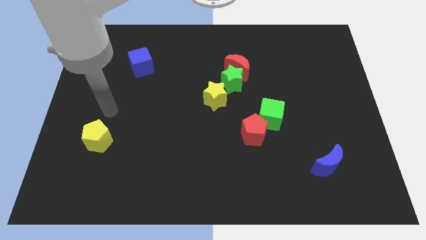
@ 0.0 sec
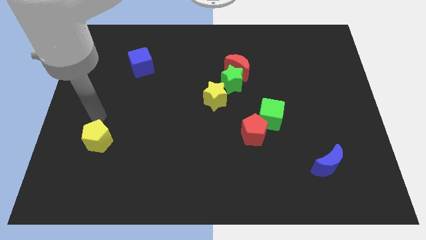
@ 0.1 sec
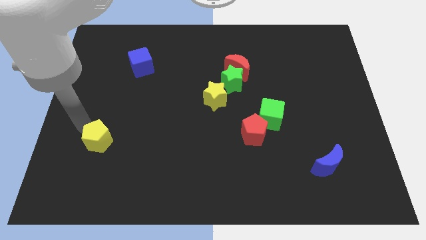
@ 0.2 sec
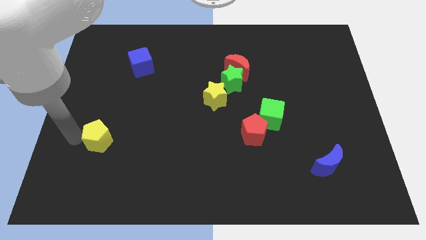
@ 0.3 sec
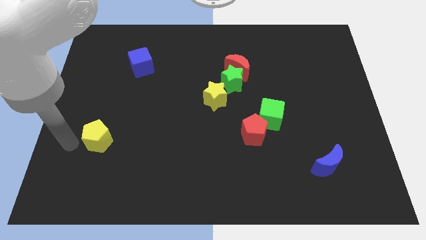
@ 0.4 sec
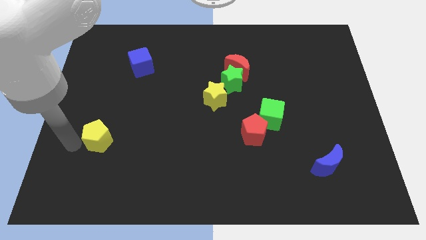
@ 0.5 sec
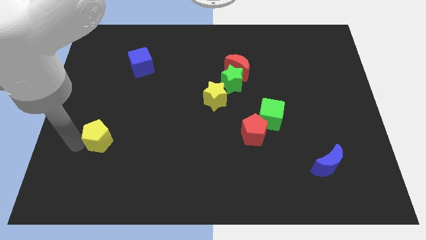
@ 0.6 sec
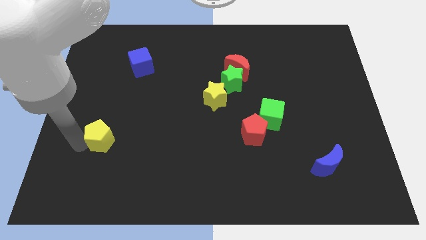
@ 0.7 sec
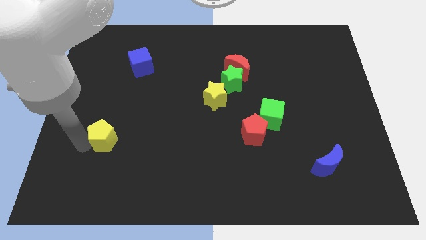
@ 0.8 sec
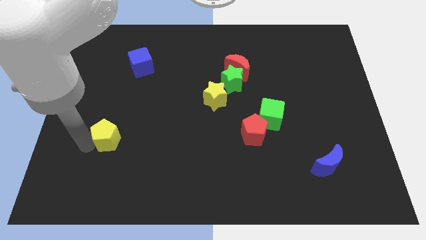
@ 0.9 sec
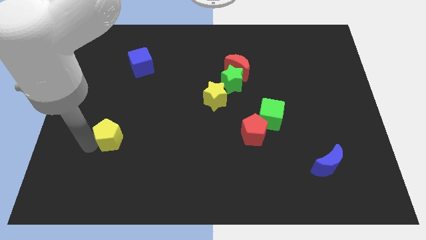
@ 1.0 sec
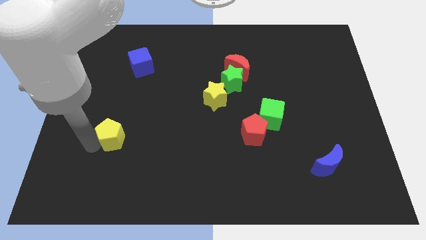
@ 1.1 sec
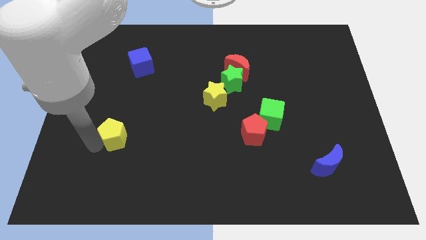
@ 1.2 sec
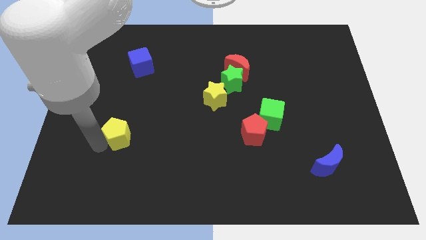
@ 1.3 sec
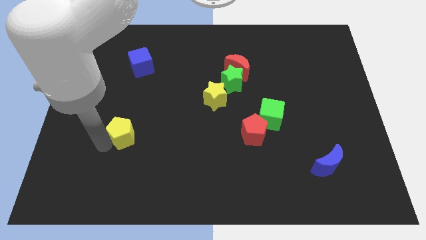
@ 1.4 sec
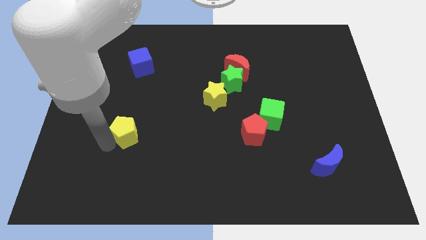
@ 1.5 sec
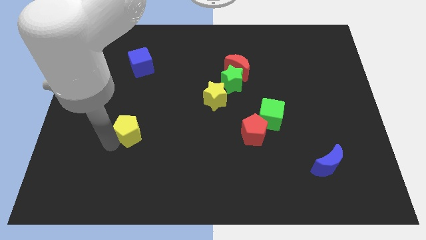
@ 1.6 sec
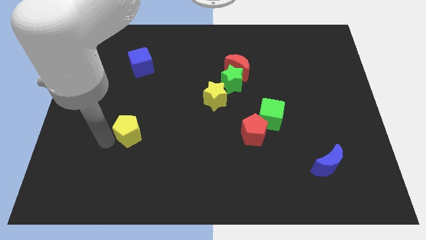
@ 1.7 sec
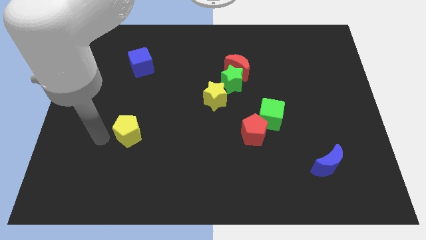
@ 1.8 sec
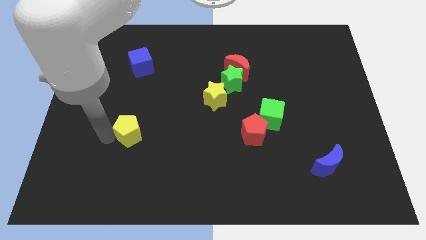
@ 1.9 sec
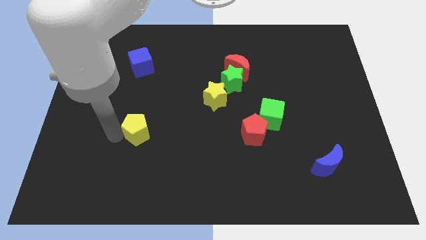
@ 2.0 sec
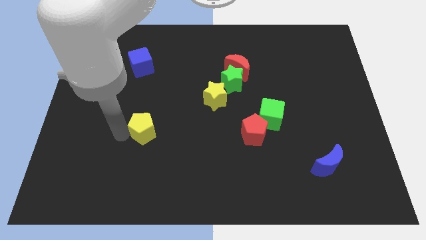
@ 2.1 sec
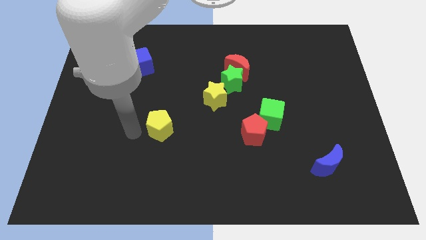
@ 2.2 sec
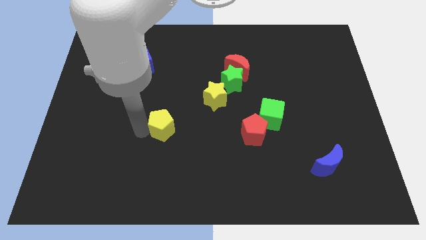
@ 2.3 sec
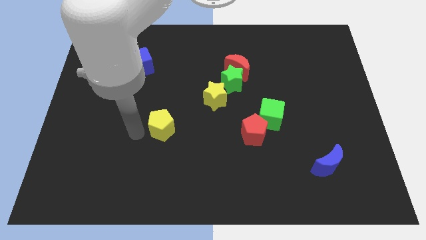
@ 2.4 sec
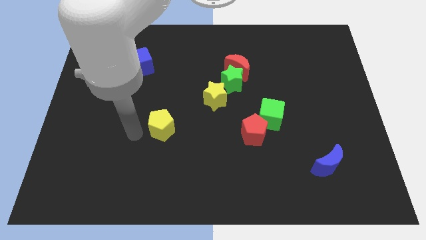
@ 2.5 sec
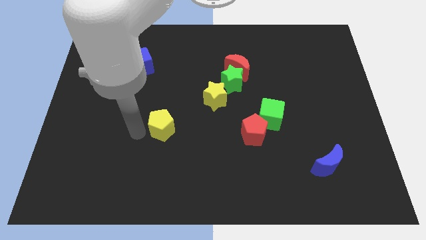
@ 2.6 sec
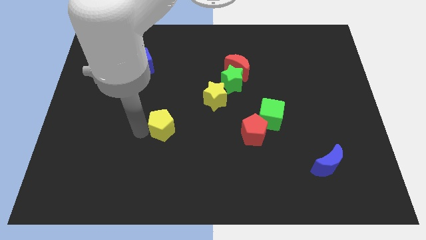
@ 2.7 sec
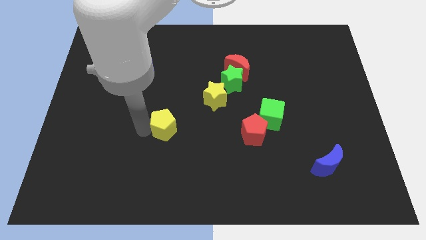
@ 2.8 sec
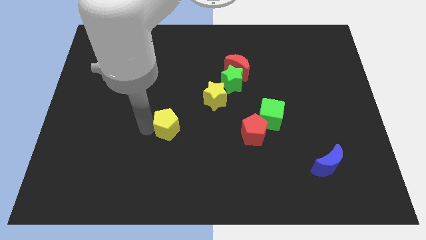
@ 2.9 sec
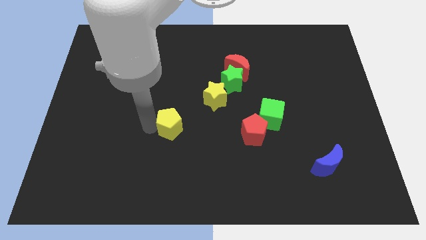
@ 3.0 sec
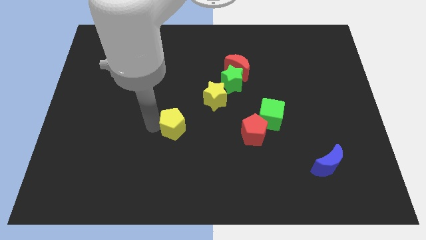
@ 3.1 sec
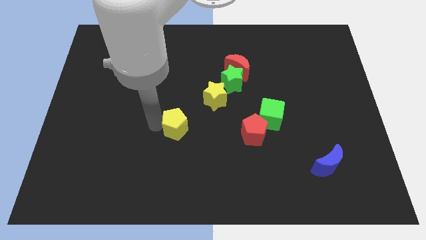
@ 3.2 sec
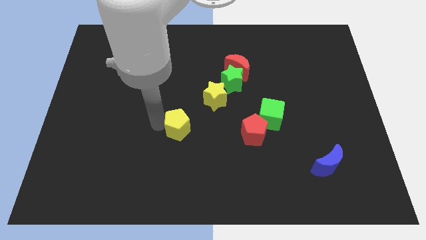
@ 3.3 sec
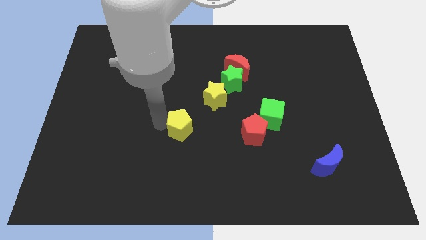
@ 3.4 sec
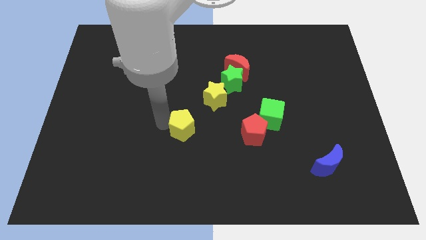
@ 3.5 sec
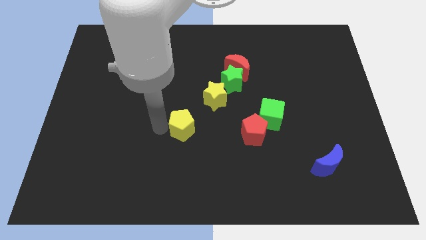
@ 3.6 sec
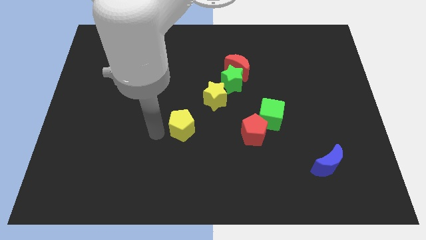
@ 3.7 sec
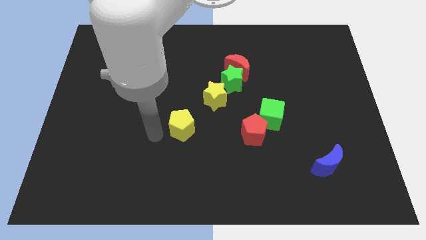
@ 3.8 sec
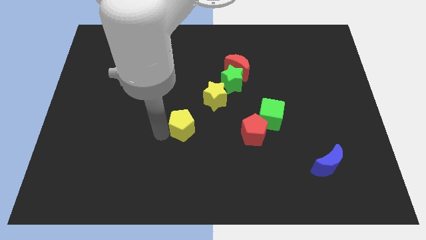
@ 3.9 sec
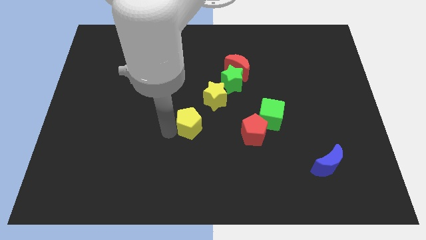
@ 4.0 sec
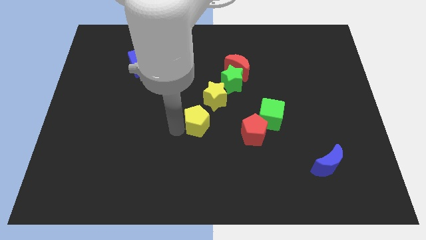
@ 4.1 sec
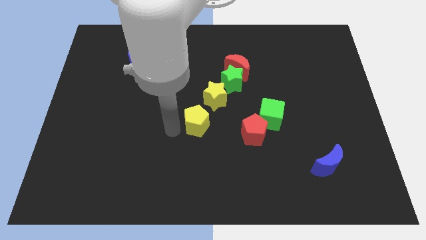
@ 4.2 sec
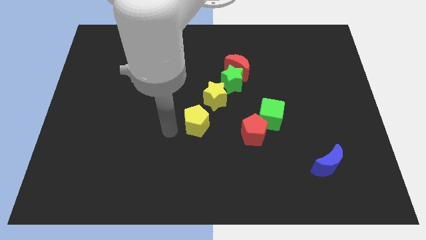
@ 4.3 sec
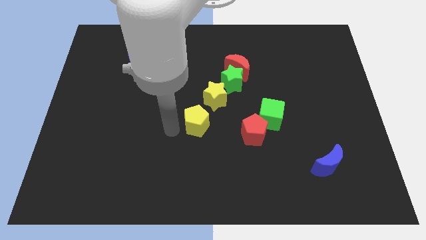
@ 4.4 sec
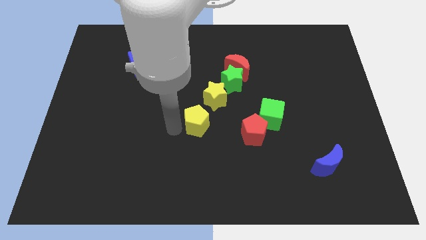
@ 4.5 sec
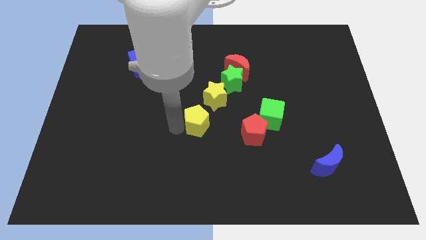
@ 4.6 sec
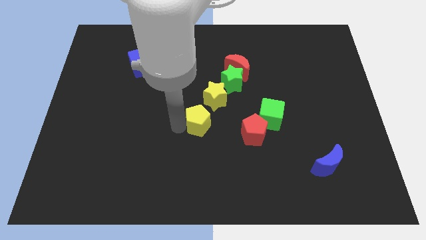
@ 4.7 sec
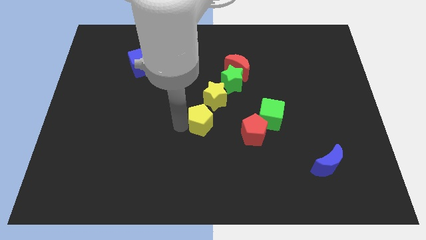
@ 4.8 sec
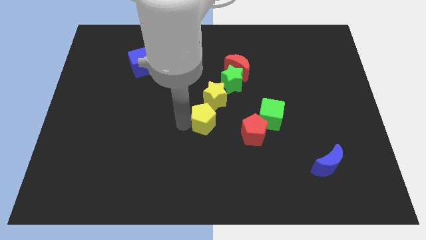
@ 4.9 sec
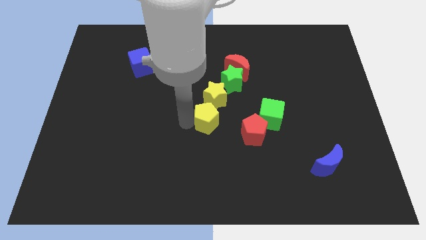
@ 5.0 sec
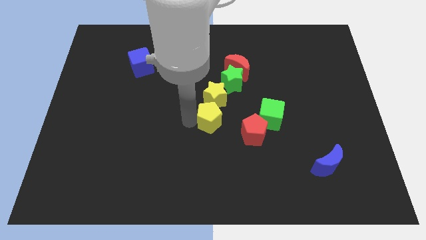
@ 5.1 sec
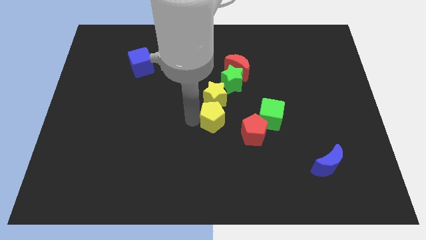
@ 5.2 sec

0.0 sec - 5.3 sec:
move the yellow pentagon below the green star

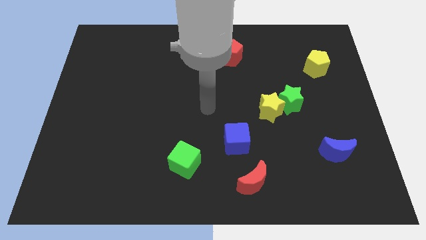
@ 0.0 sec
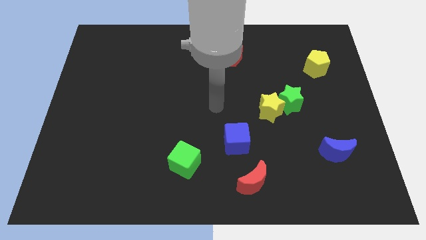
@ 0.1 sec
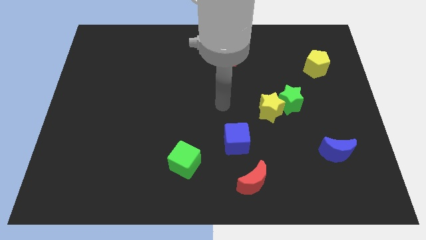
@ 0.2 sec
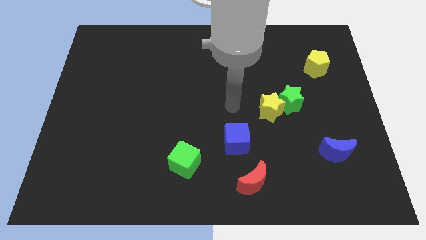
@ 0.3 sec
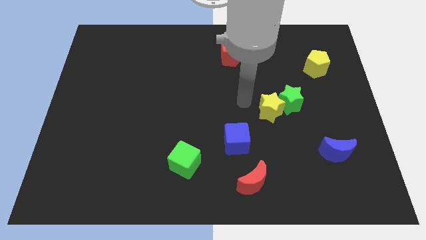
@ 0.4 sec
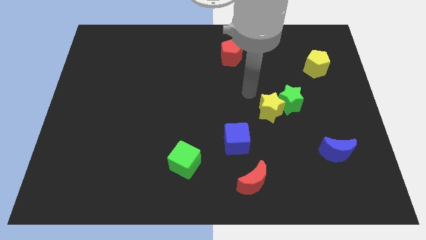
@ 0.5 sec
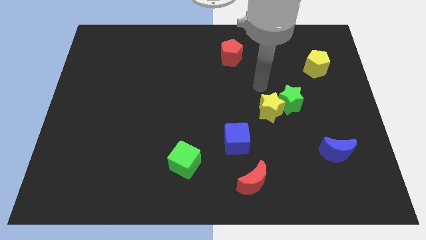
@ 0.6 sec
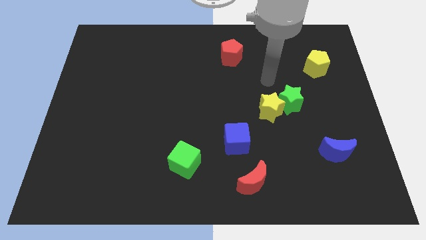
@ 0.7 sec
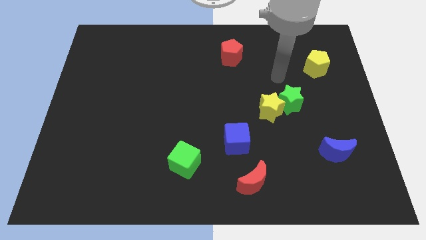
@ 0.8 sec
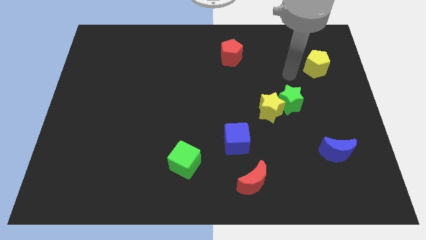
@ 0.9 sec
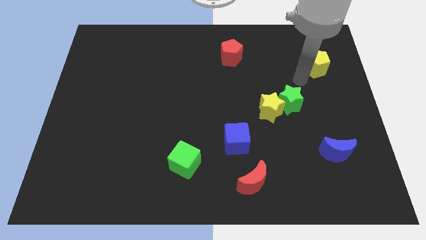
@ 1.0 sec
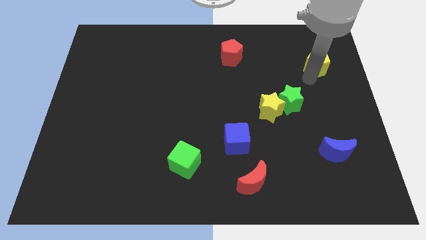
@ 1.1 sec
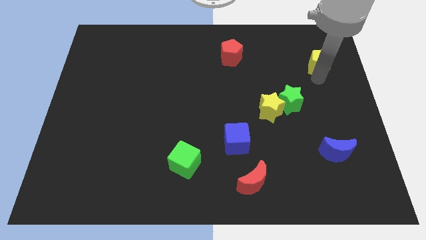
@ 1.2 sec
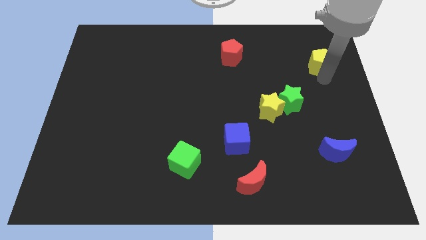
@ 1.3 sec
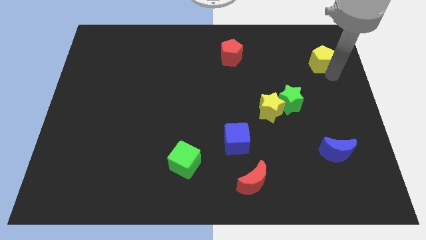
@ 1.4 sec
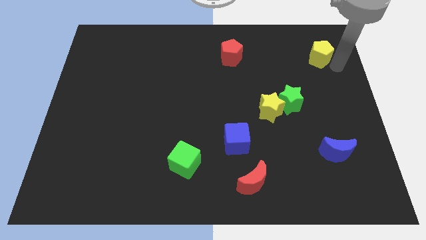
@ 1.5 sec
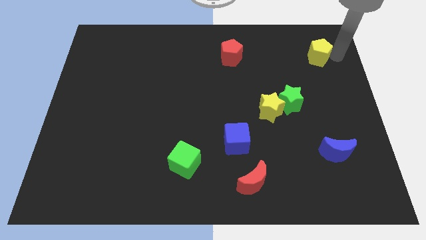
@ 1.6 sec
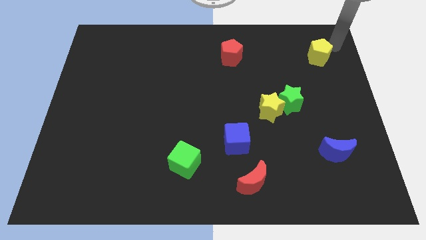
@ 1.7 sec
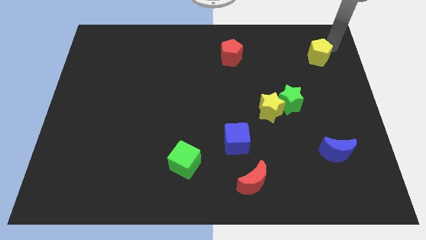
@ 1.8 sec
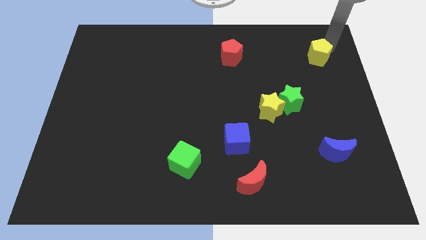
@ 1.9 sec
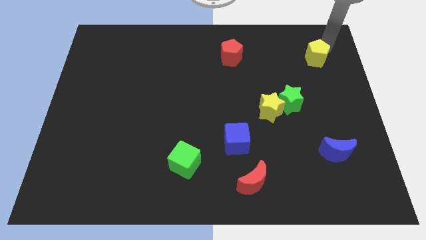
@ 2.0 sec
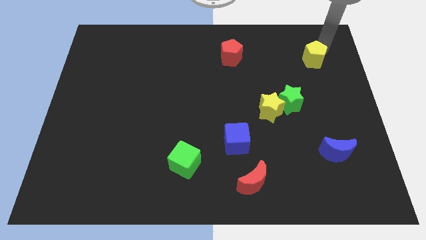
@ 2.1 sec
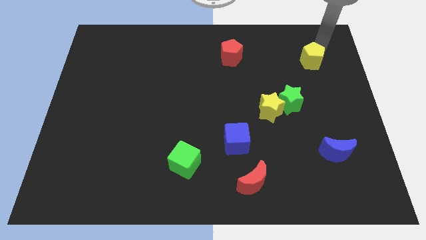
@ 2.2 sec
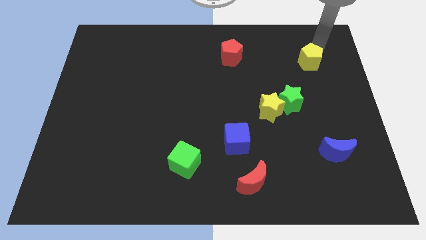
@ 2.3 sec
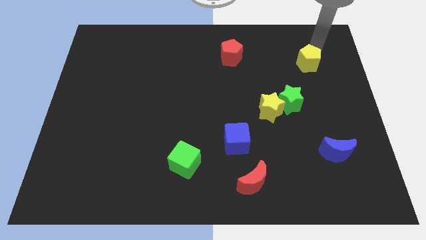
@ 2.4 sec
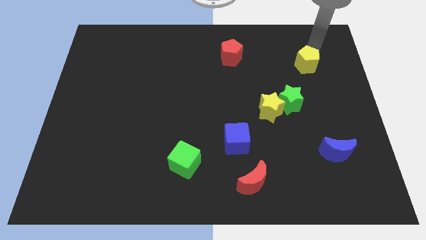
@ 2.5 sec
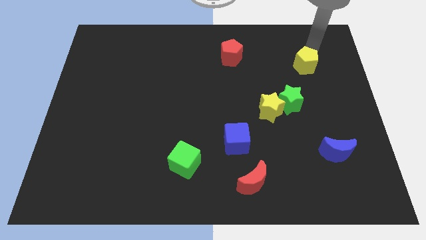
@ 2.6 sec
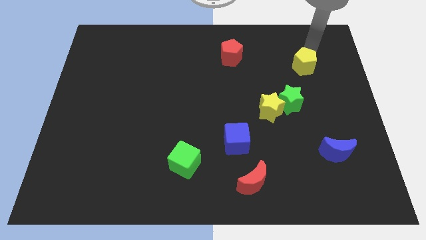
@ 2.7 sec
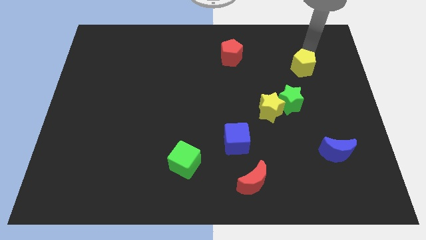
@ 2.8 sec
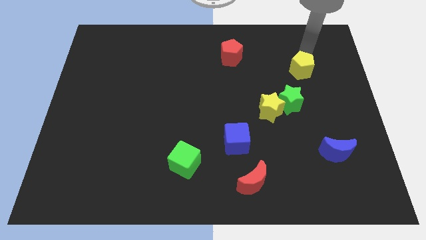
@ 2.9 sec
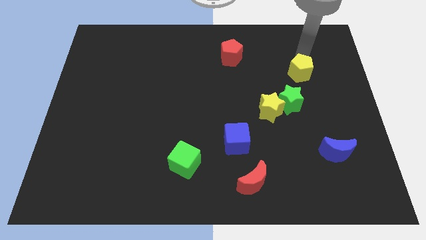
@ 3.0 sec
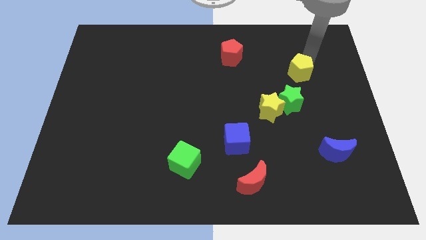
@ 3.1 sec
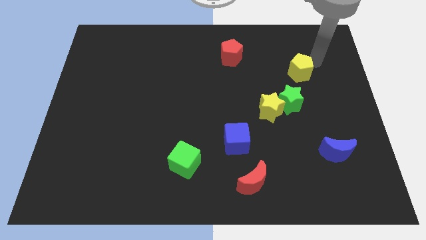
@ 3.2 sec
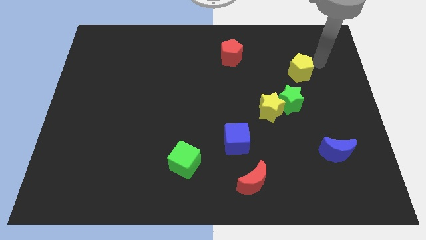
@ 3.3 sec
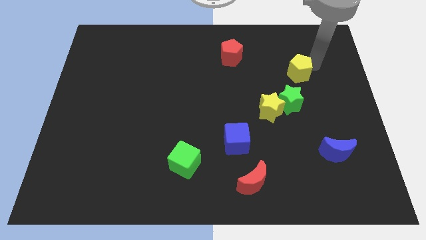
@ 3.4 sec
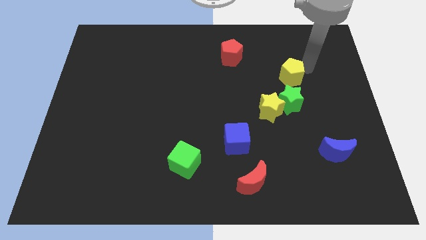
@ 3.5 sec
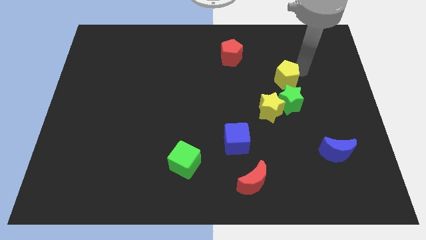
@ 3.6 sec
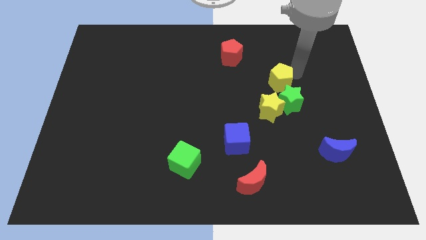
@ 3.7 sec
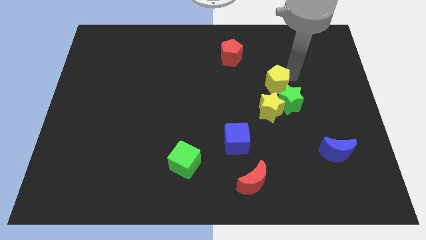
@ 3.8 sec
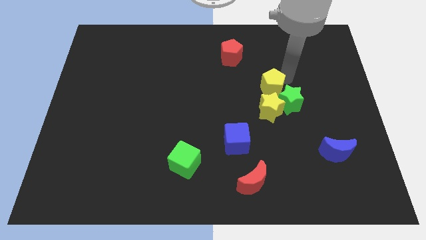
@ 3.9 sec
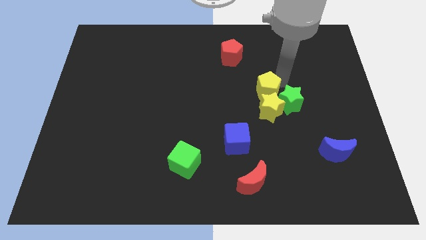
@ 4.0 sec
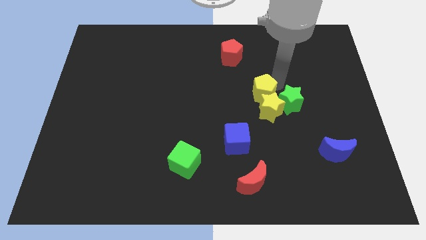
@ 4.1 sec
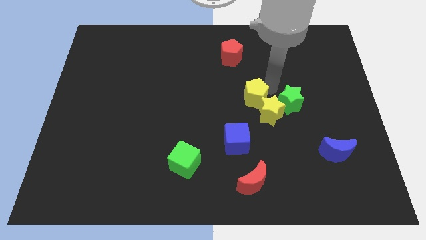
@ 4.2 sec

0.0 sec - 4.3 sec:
slide the yellow pentagon above the blue cube
